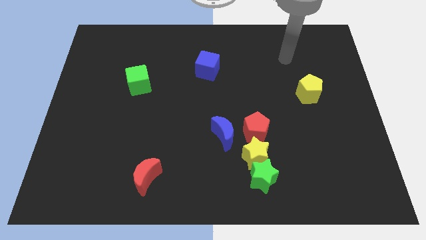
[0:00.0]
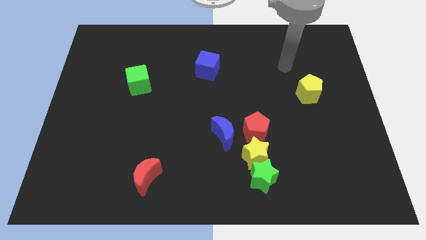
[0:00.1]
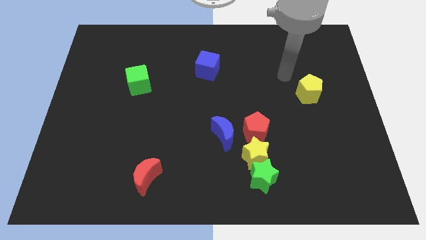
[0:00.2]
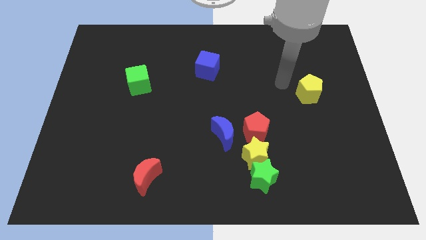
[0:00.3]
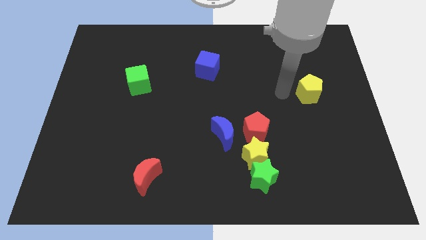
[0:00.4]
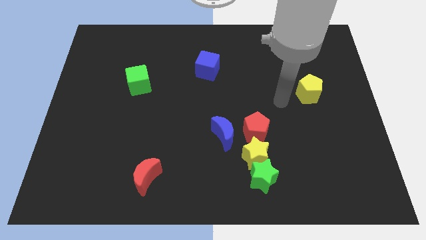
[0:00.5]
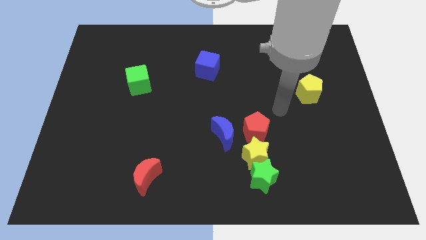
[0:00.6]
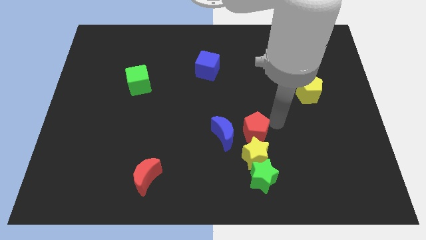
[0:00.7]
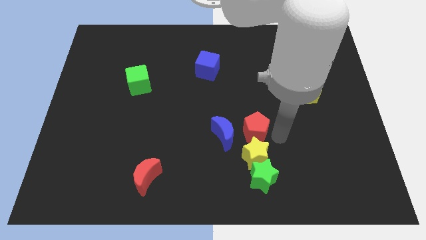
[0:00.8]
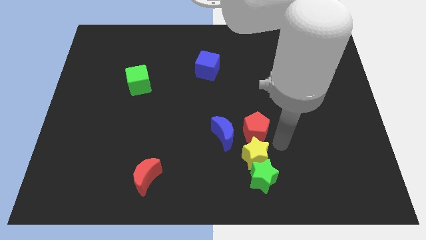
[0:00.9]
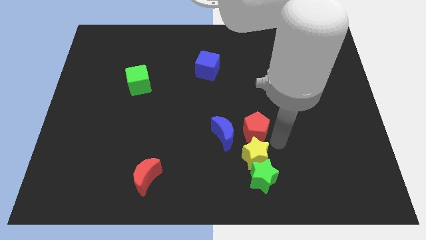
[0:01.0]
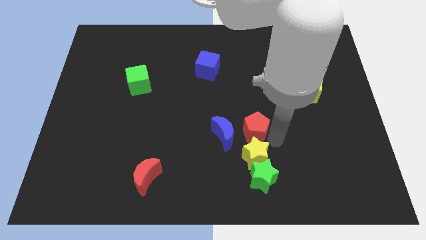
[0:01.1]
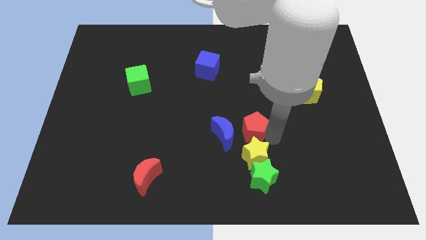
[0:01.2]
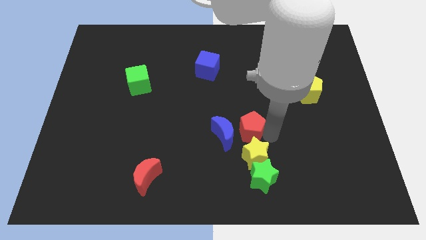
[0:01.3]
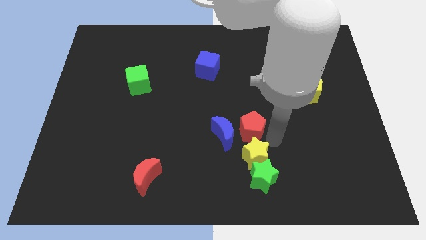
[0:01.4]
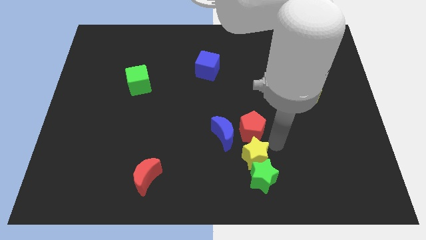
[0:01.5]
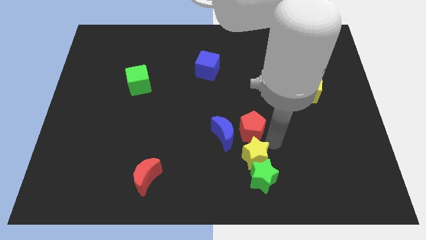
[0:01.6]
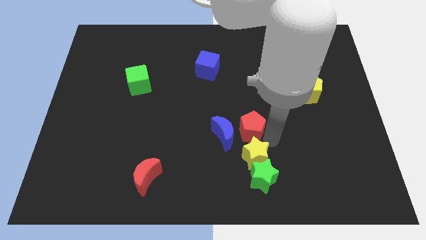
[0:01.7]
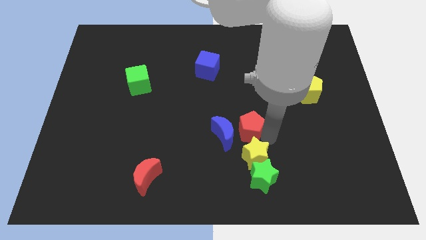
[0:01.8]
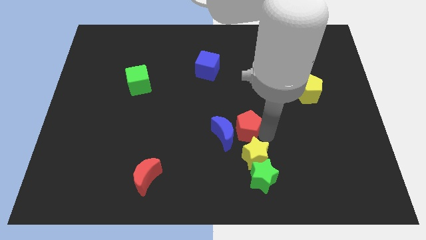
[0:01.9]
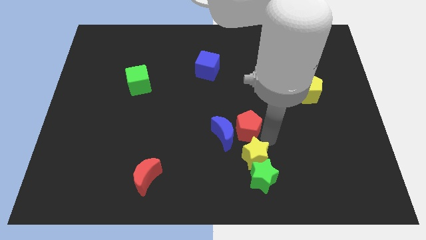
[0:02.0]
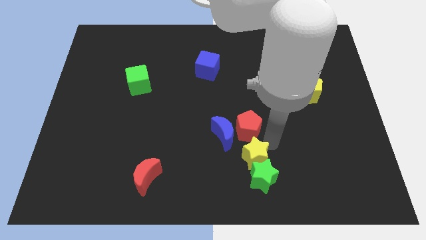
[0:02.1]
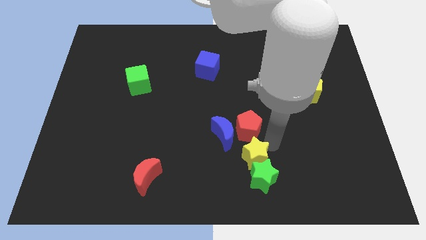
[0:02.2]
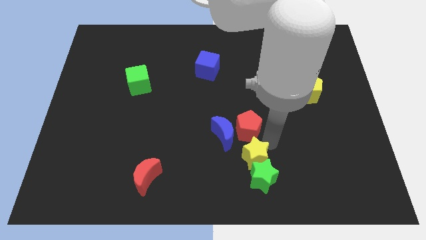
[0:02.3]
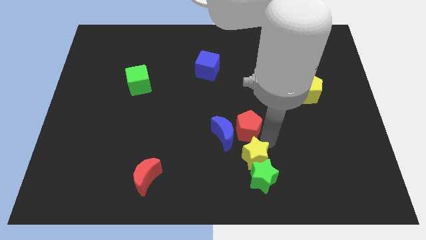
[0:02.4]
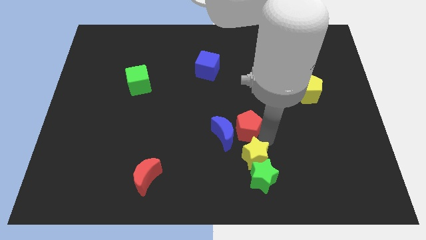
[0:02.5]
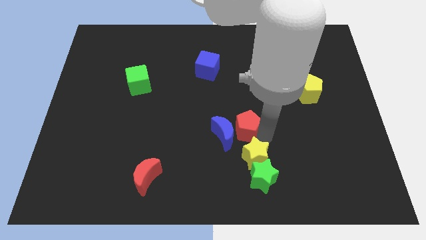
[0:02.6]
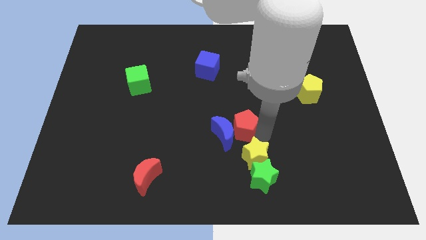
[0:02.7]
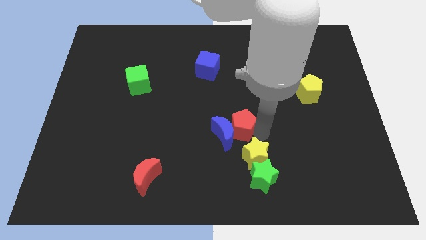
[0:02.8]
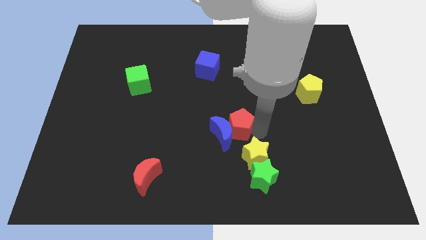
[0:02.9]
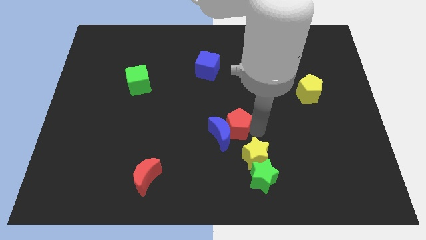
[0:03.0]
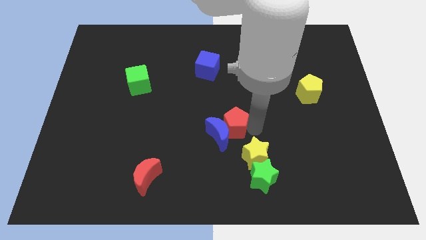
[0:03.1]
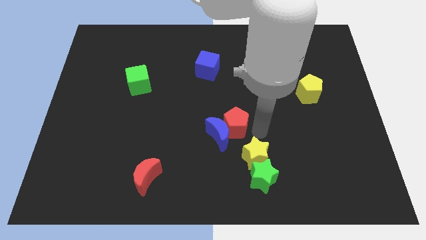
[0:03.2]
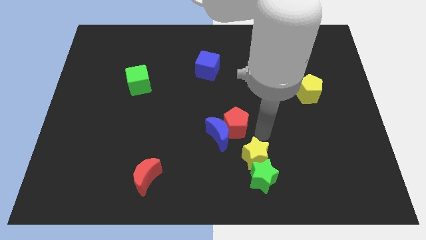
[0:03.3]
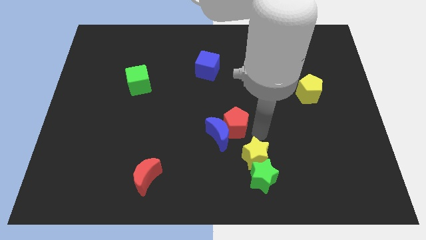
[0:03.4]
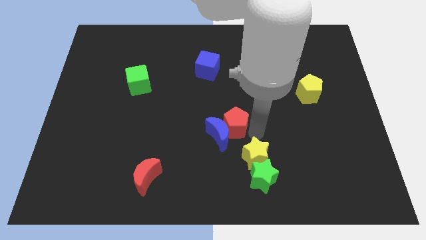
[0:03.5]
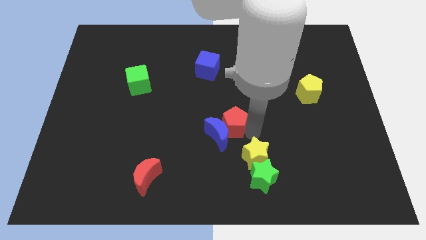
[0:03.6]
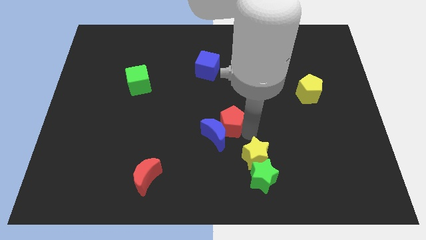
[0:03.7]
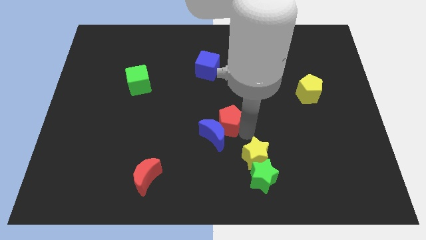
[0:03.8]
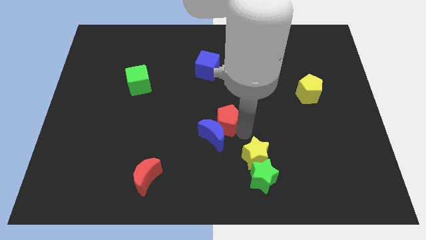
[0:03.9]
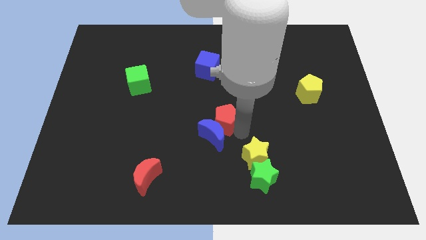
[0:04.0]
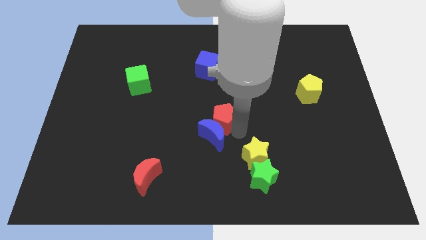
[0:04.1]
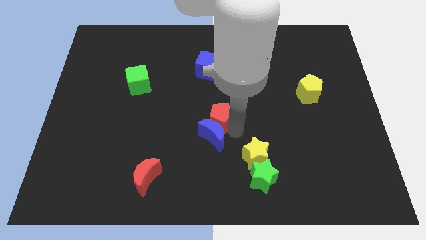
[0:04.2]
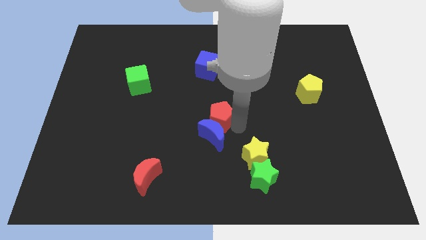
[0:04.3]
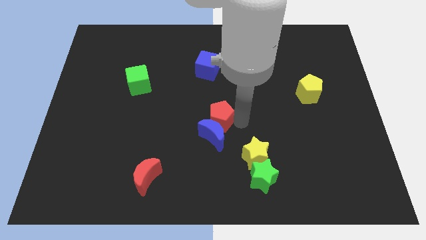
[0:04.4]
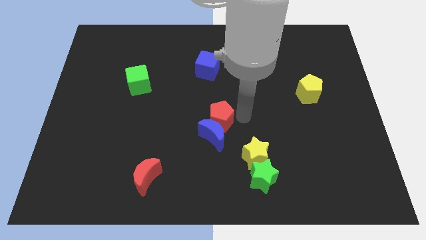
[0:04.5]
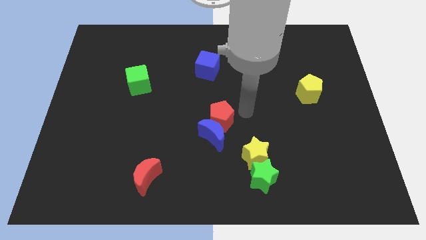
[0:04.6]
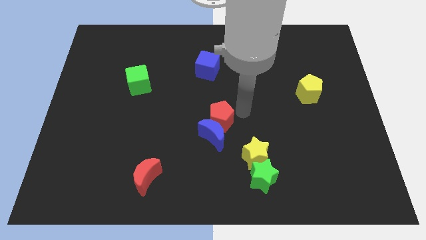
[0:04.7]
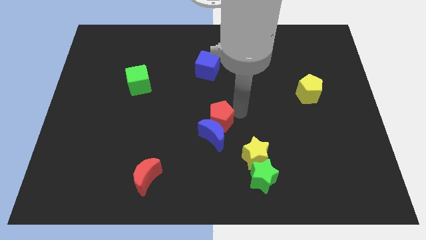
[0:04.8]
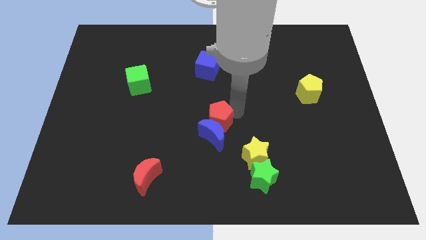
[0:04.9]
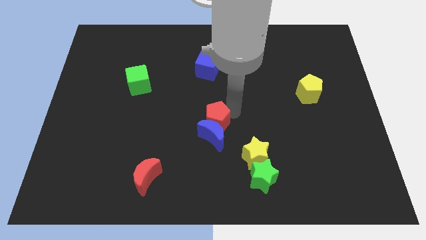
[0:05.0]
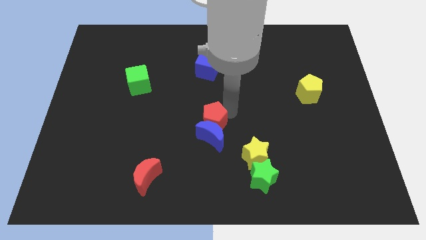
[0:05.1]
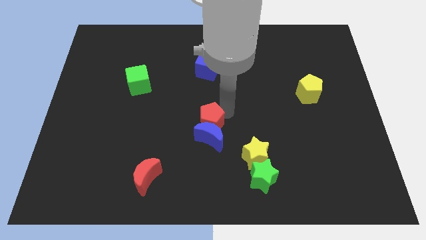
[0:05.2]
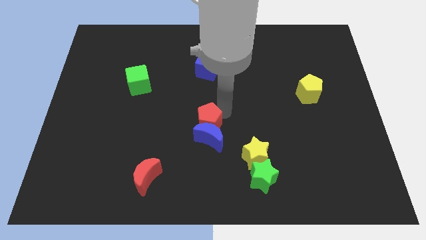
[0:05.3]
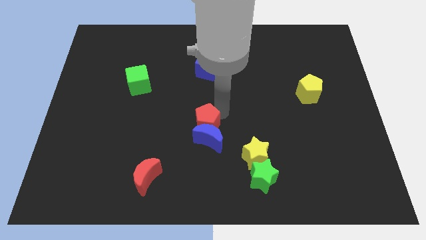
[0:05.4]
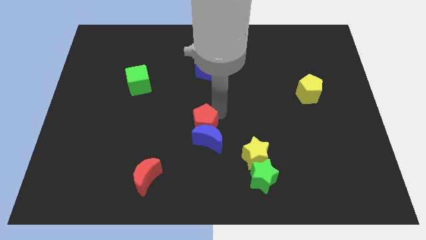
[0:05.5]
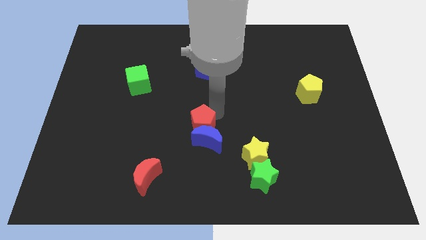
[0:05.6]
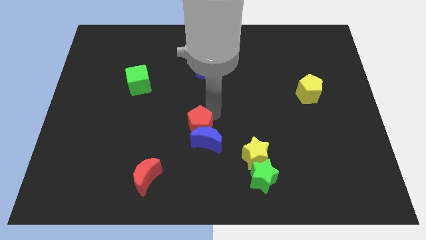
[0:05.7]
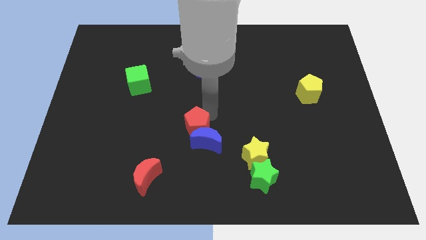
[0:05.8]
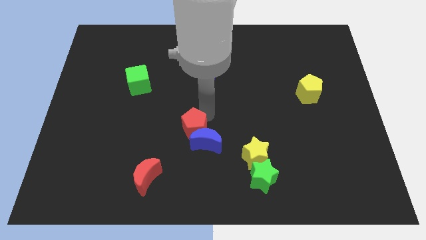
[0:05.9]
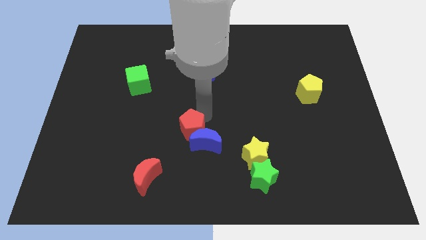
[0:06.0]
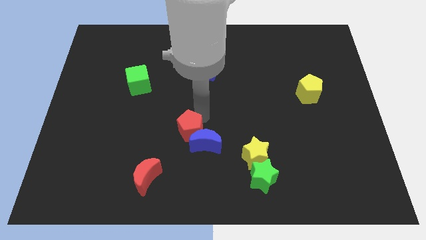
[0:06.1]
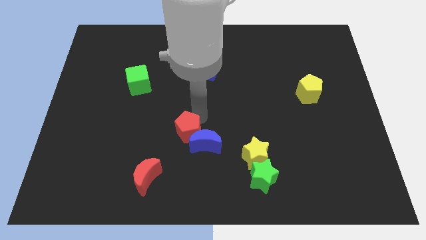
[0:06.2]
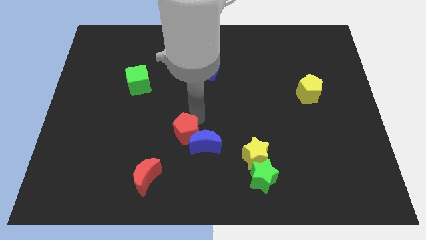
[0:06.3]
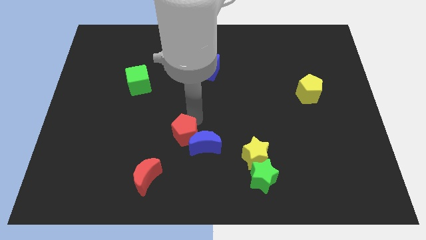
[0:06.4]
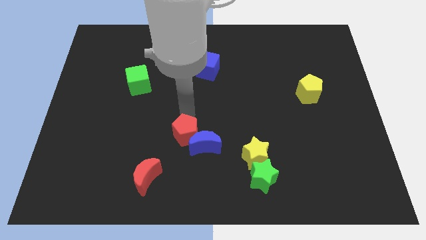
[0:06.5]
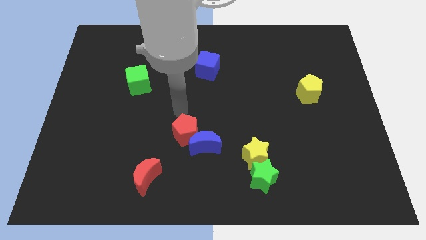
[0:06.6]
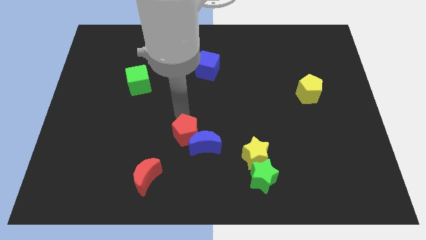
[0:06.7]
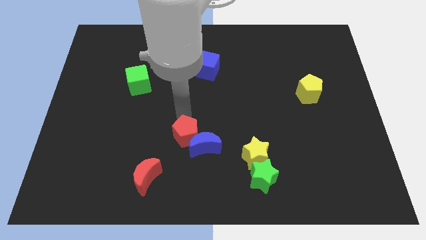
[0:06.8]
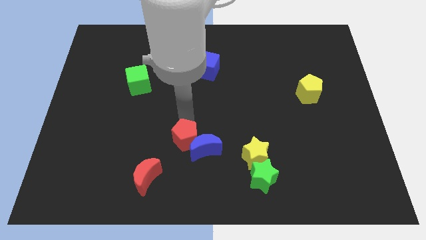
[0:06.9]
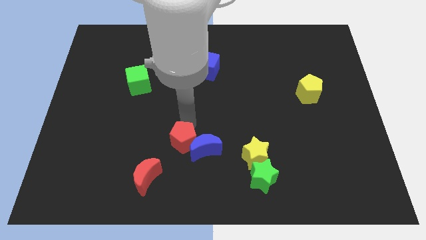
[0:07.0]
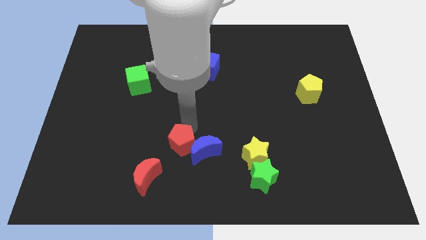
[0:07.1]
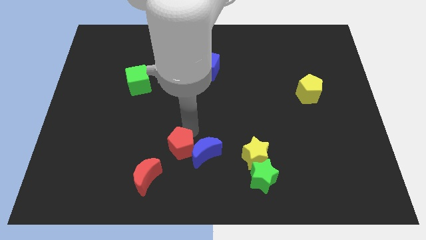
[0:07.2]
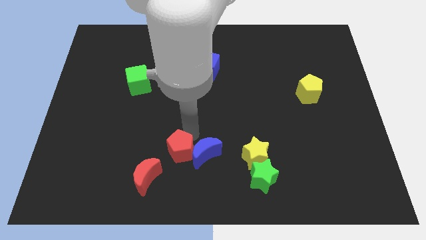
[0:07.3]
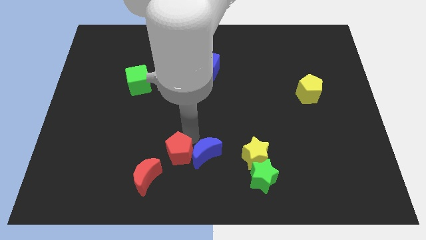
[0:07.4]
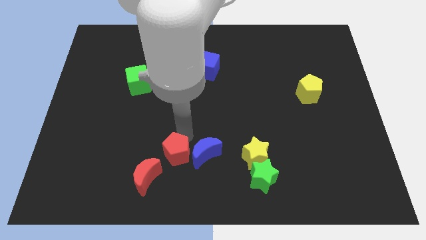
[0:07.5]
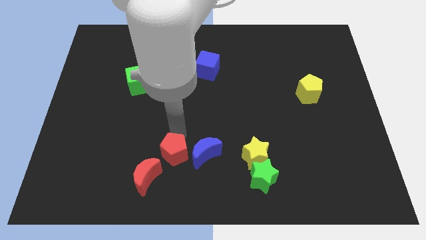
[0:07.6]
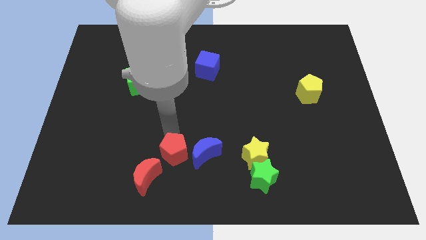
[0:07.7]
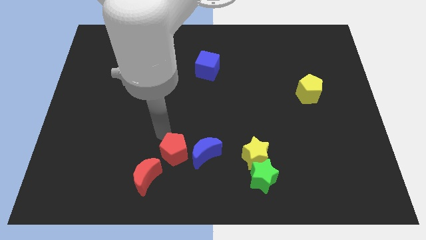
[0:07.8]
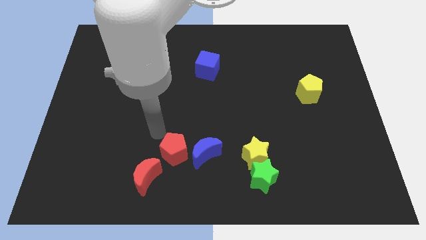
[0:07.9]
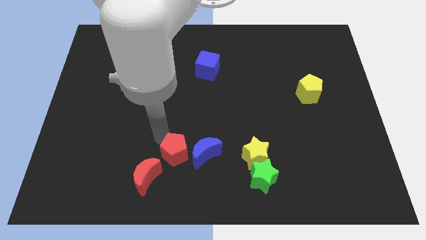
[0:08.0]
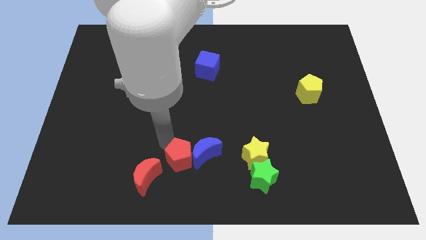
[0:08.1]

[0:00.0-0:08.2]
push the red pentagon to the right of the red moon
